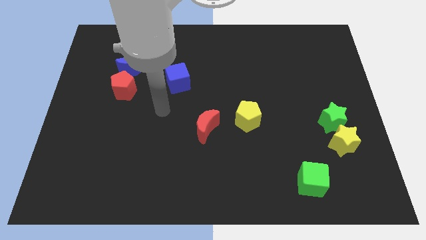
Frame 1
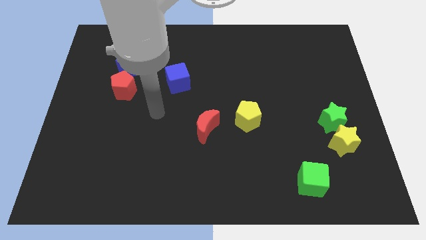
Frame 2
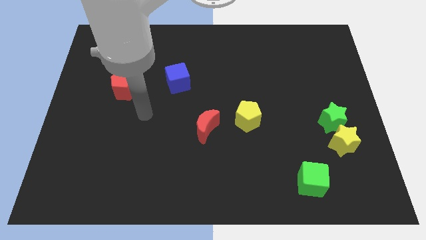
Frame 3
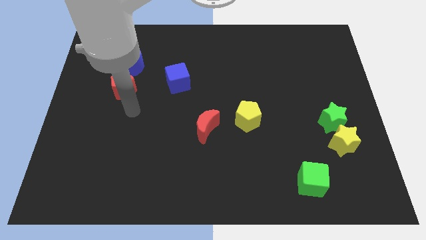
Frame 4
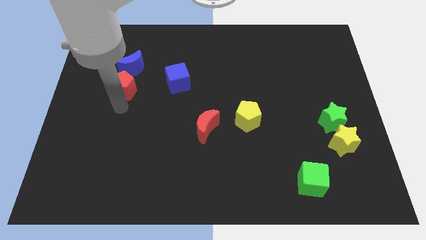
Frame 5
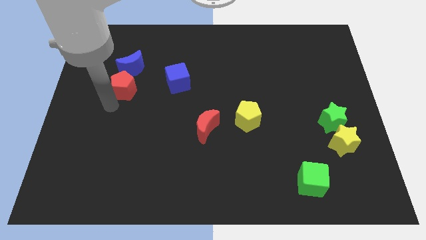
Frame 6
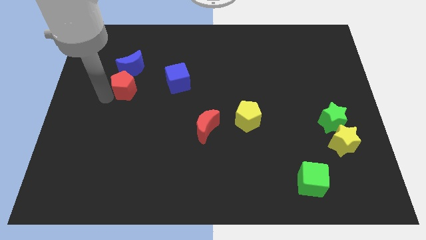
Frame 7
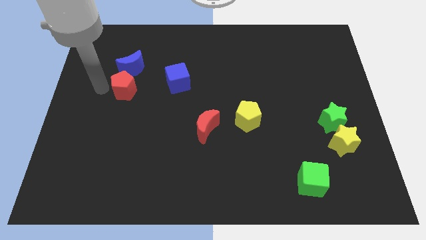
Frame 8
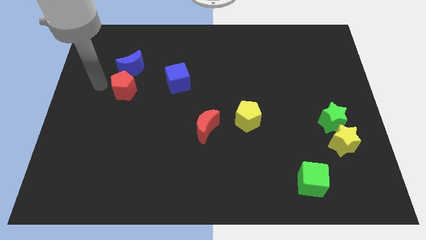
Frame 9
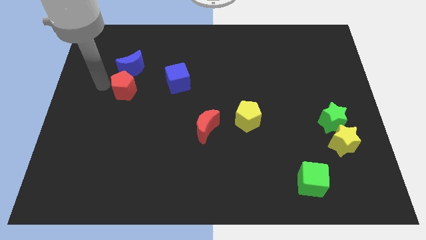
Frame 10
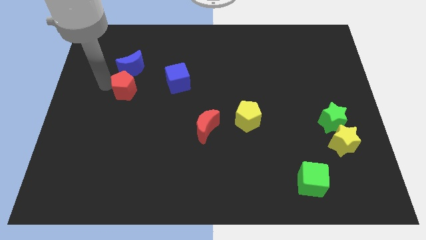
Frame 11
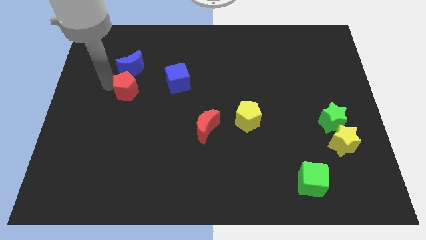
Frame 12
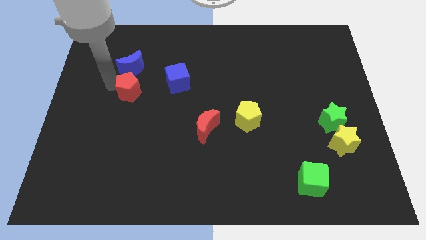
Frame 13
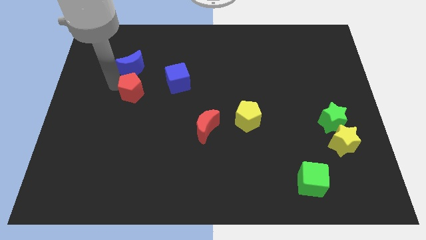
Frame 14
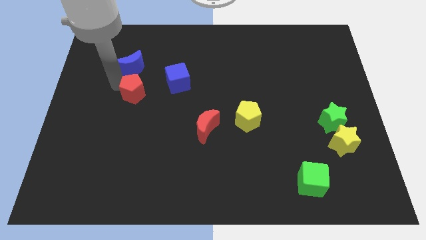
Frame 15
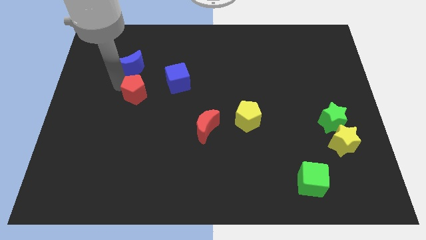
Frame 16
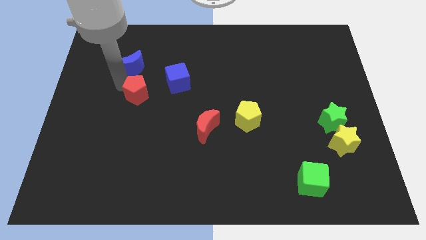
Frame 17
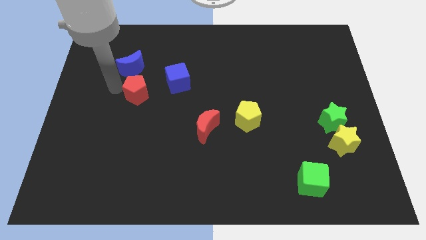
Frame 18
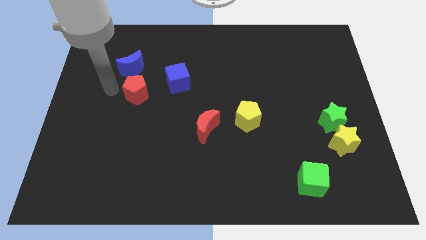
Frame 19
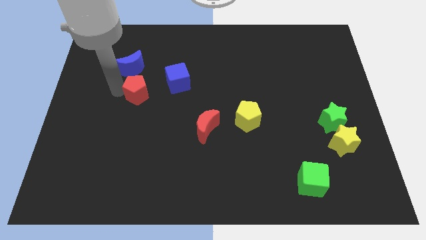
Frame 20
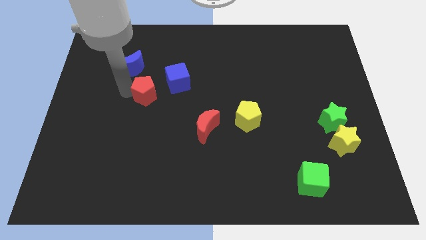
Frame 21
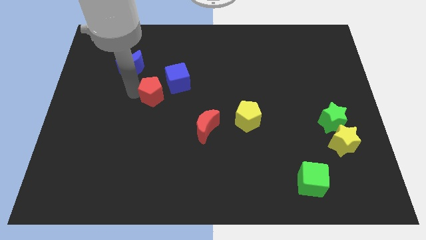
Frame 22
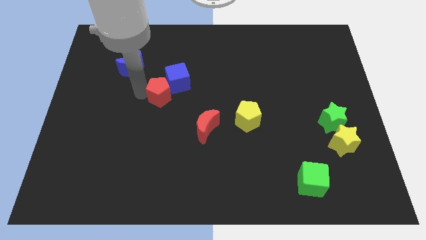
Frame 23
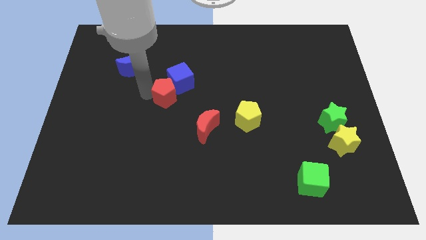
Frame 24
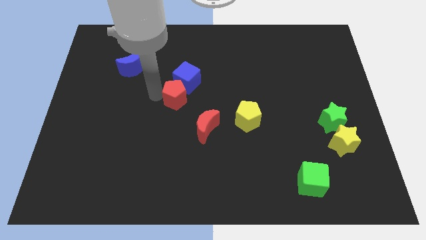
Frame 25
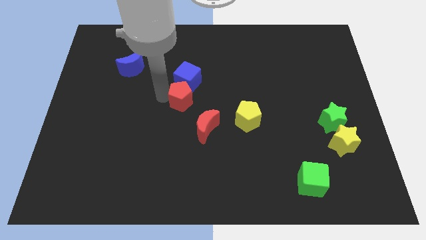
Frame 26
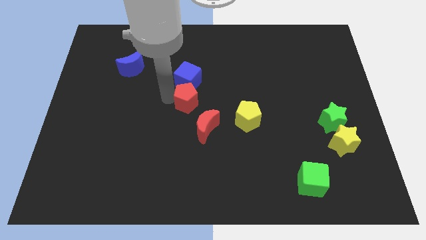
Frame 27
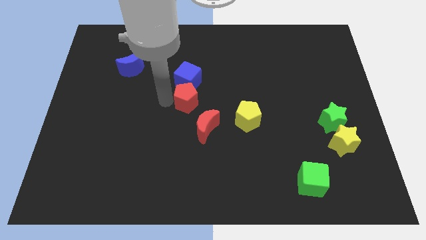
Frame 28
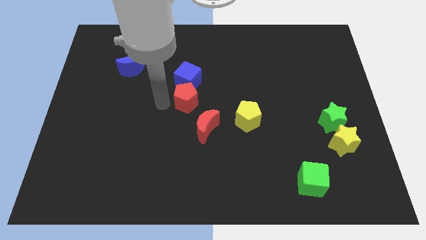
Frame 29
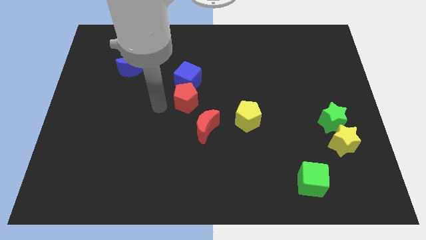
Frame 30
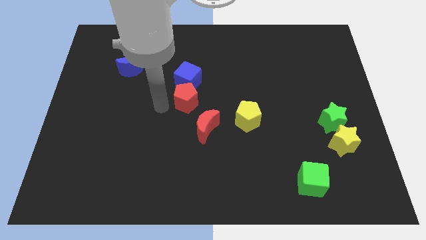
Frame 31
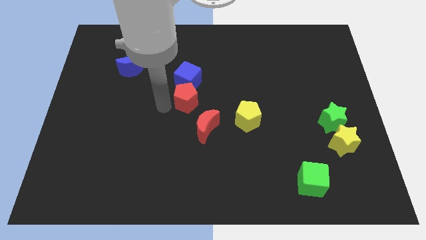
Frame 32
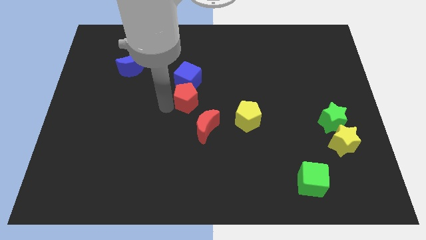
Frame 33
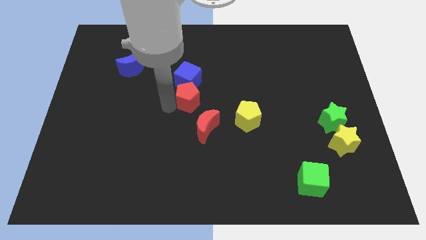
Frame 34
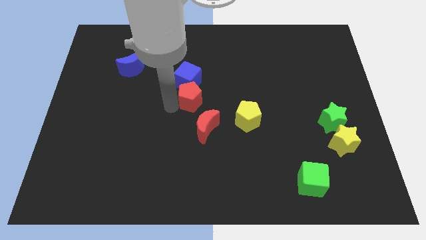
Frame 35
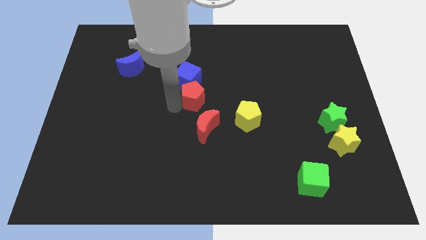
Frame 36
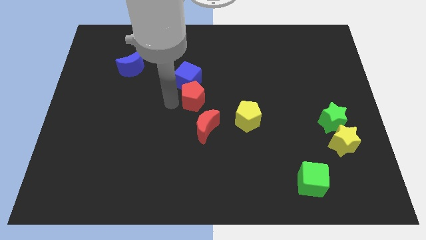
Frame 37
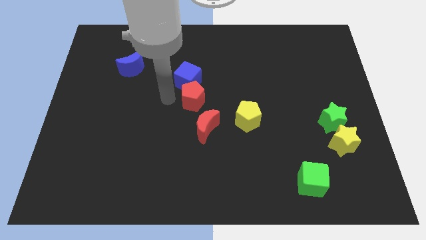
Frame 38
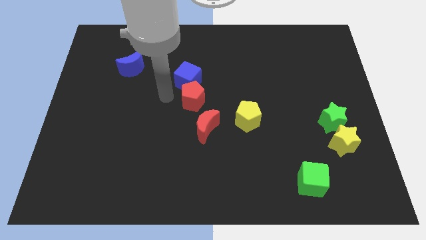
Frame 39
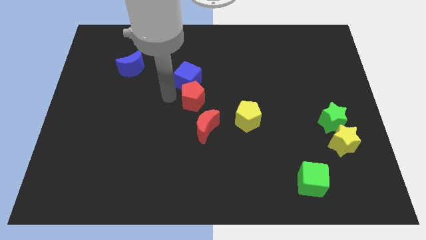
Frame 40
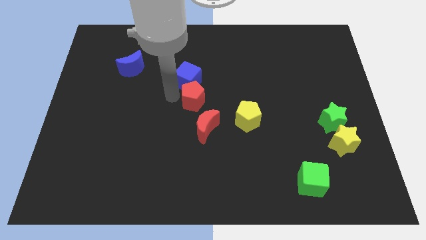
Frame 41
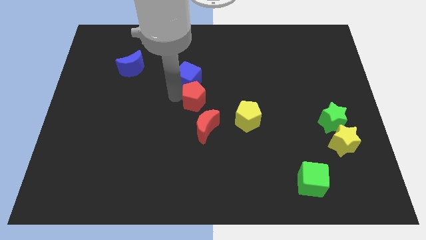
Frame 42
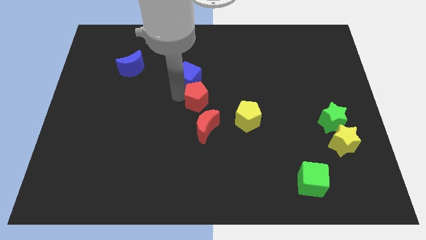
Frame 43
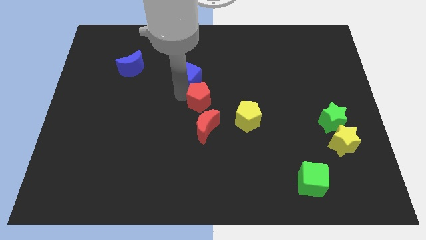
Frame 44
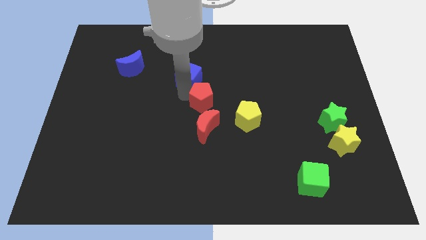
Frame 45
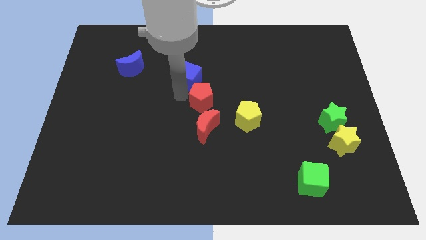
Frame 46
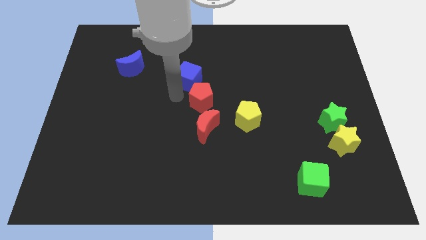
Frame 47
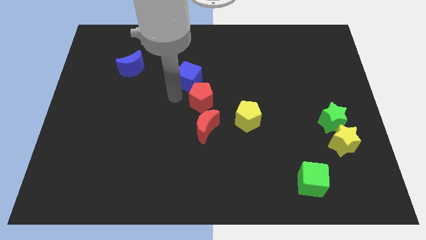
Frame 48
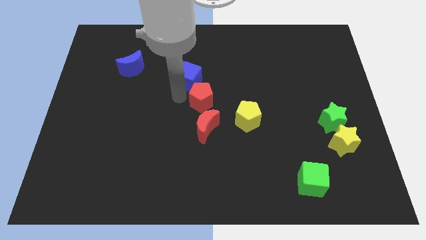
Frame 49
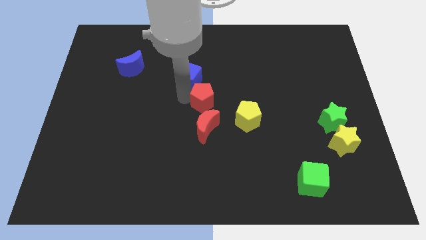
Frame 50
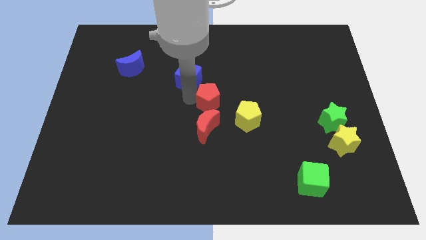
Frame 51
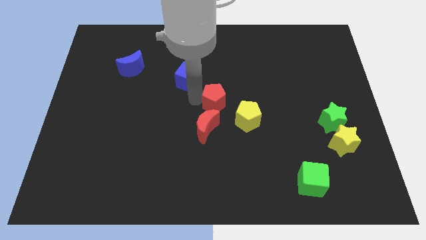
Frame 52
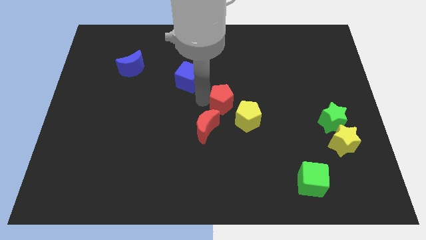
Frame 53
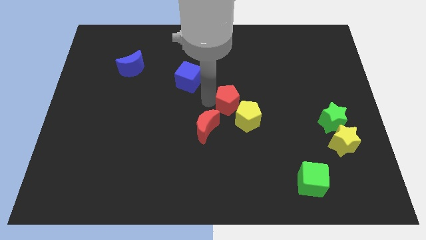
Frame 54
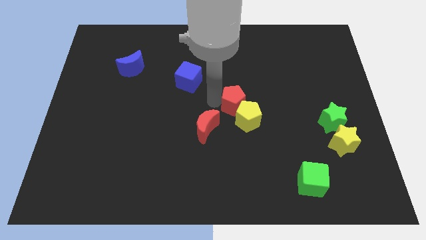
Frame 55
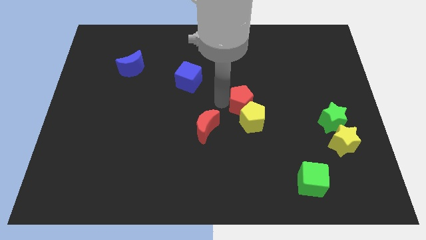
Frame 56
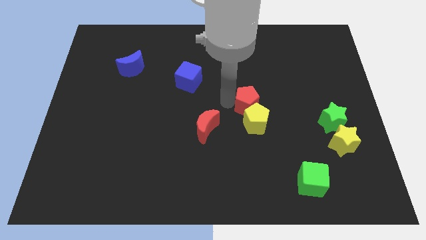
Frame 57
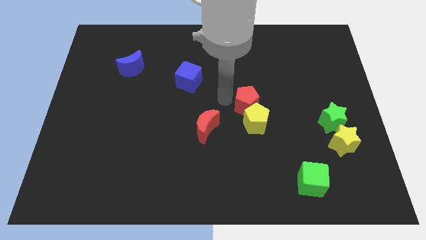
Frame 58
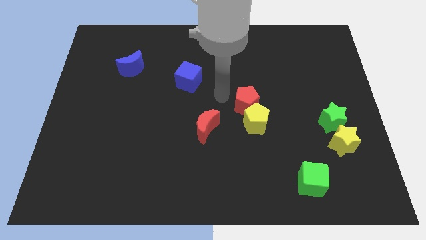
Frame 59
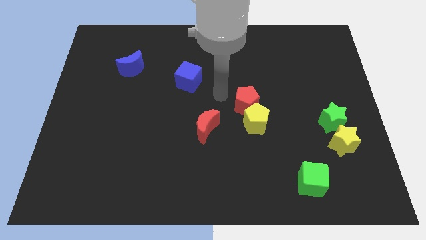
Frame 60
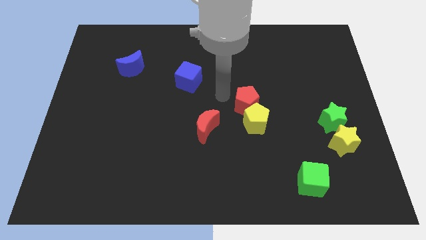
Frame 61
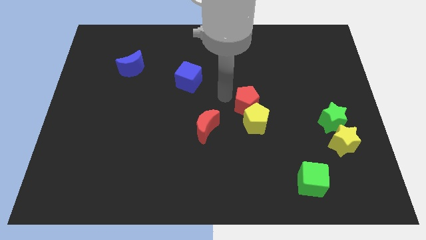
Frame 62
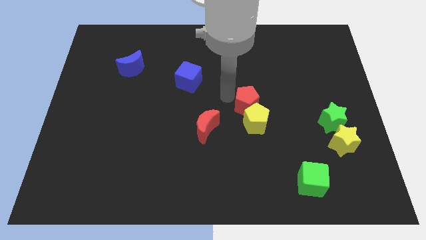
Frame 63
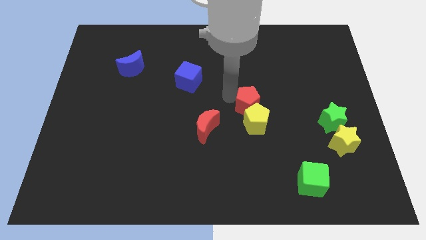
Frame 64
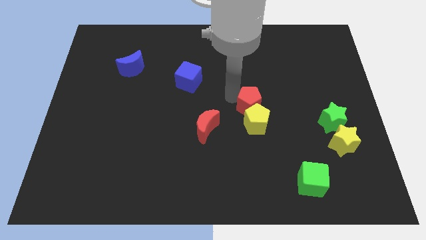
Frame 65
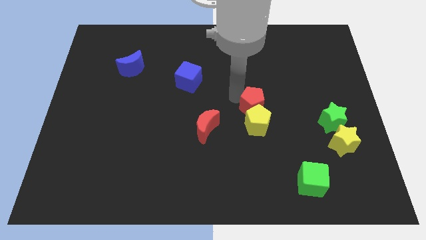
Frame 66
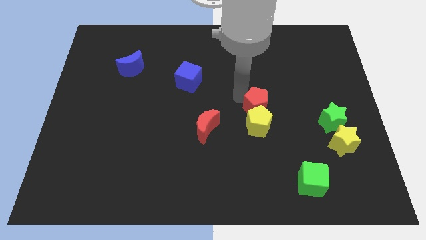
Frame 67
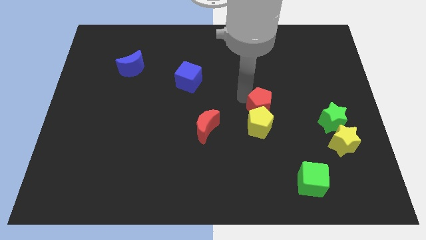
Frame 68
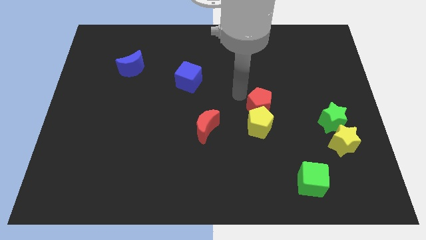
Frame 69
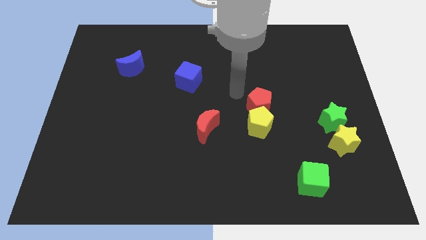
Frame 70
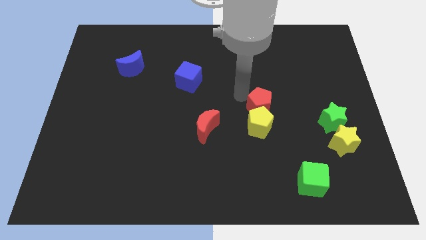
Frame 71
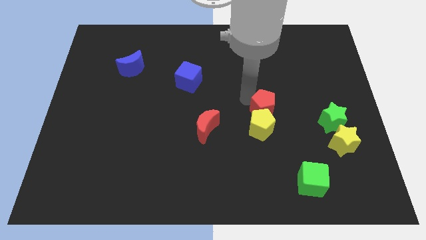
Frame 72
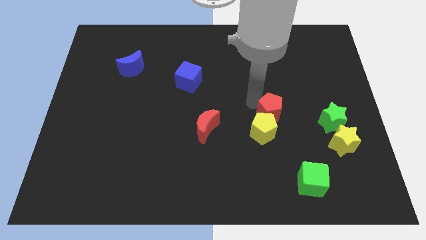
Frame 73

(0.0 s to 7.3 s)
put the red pentagon to the left side of the green star
